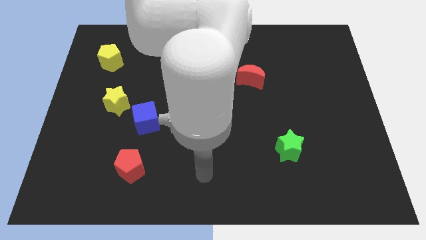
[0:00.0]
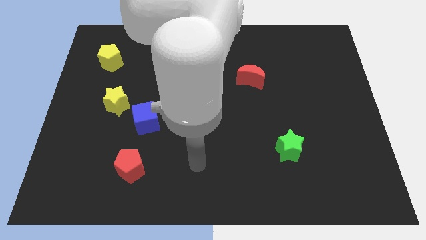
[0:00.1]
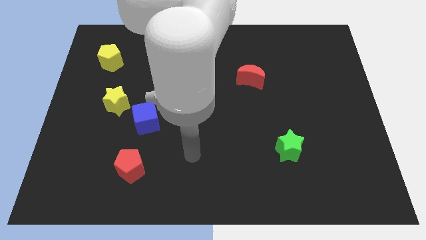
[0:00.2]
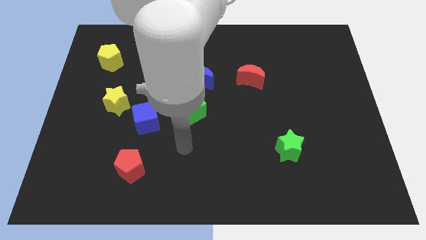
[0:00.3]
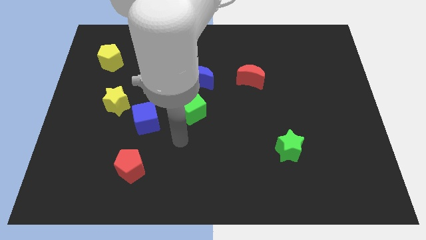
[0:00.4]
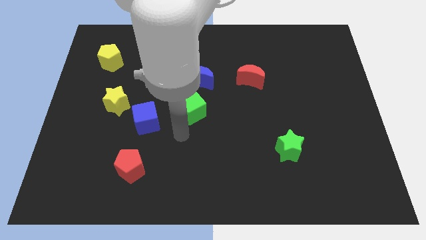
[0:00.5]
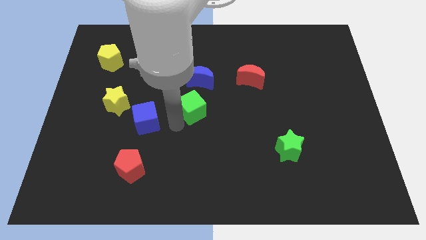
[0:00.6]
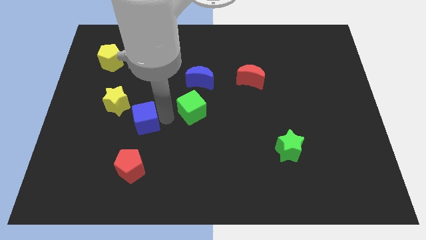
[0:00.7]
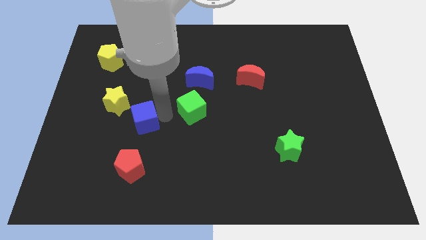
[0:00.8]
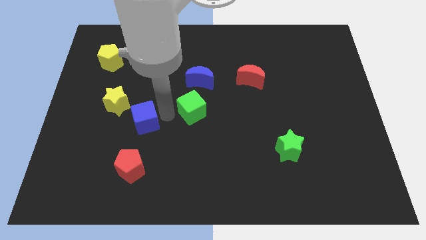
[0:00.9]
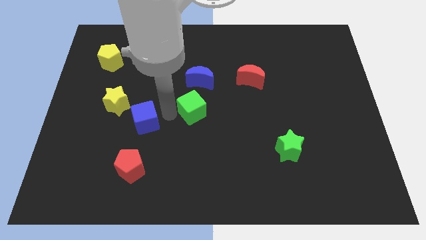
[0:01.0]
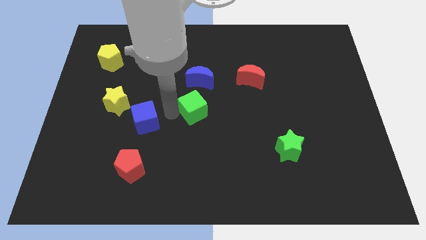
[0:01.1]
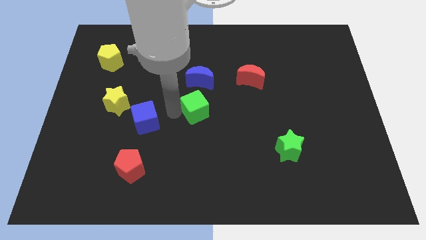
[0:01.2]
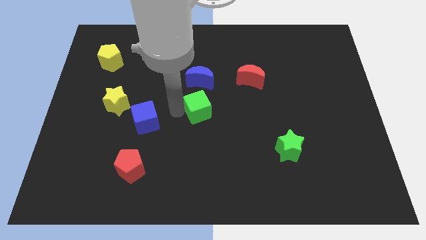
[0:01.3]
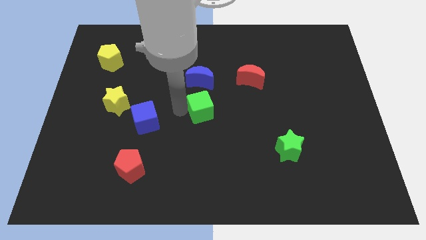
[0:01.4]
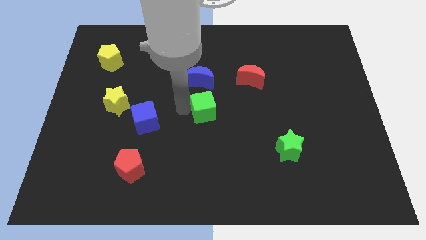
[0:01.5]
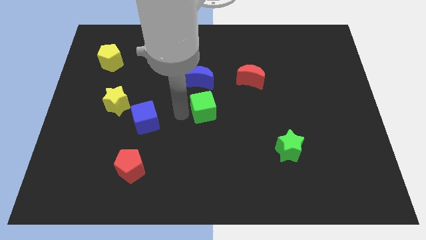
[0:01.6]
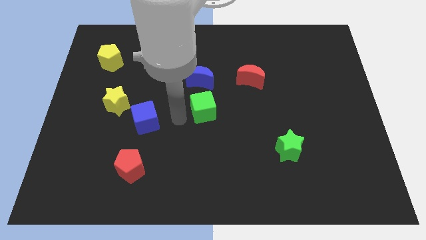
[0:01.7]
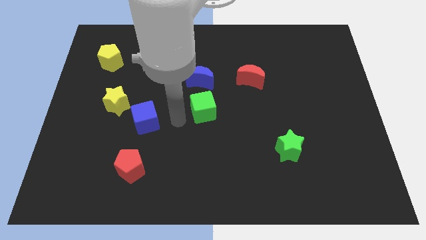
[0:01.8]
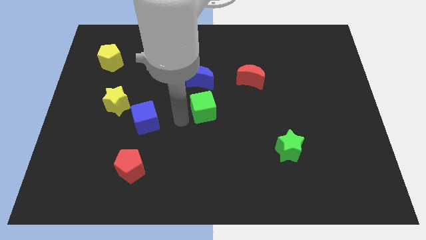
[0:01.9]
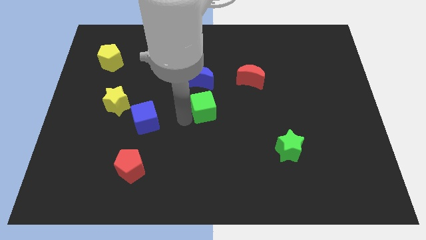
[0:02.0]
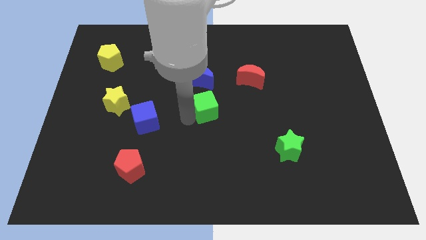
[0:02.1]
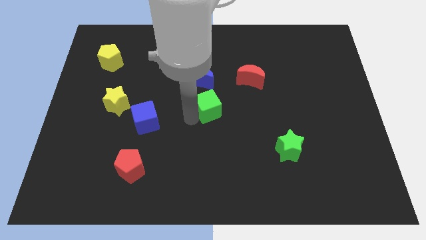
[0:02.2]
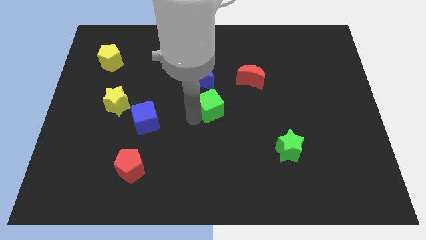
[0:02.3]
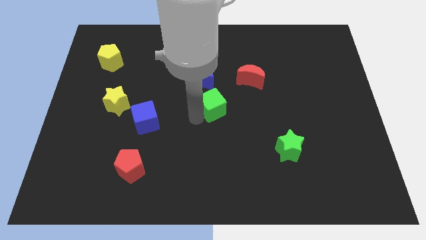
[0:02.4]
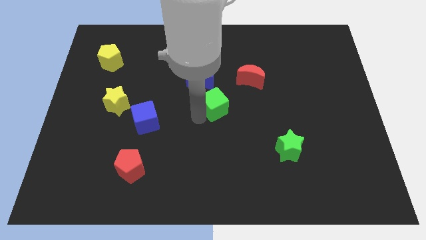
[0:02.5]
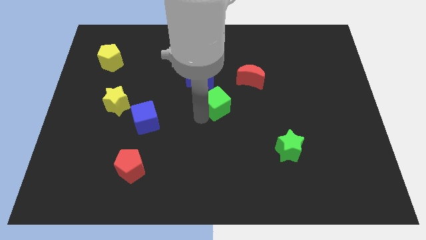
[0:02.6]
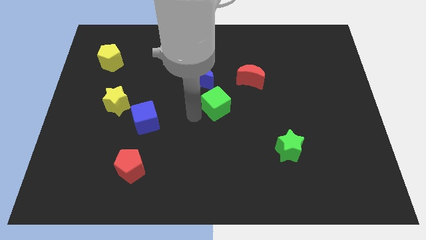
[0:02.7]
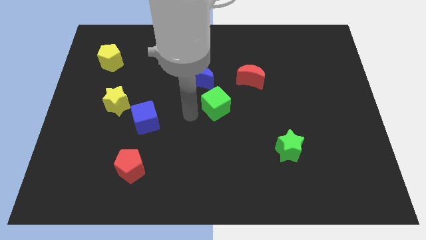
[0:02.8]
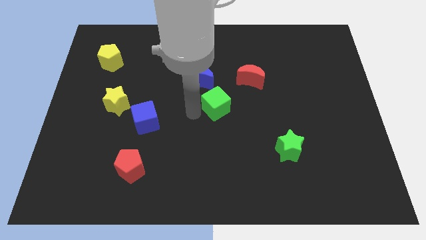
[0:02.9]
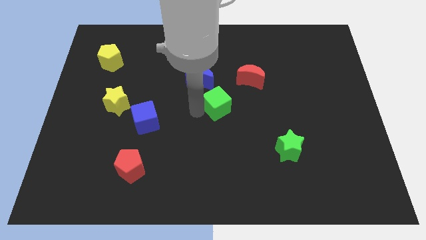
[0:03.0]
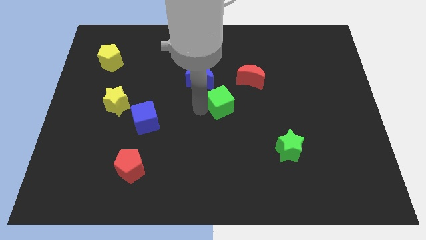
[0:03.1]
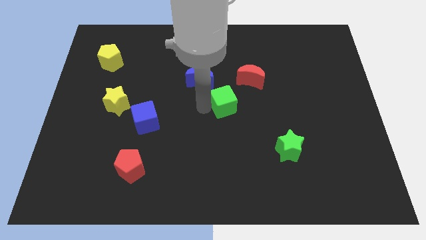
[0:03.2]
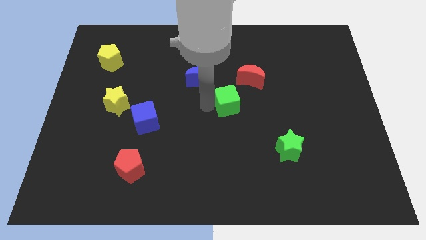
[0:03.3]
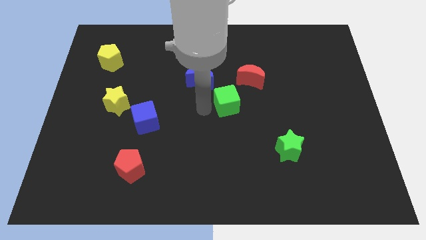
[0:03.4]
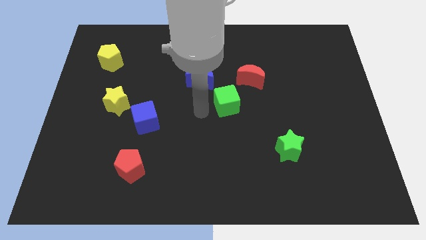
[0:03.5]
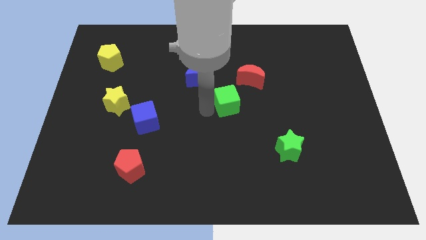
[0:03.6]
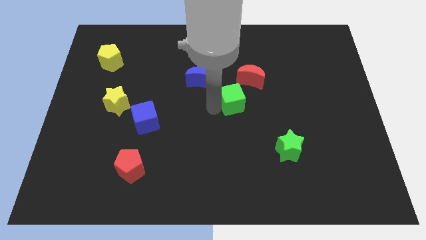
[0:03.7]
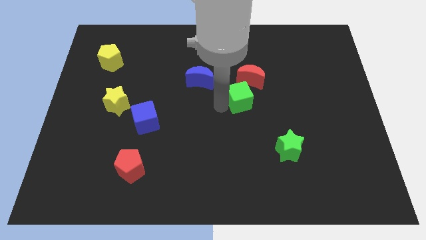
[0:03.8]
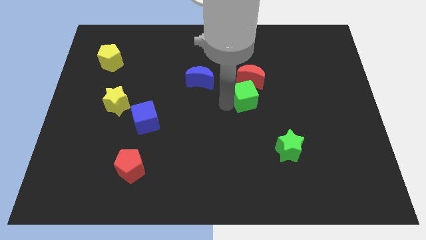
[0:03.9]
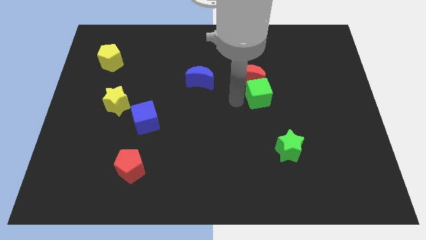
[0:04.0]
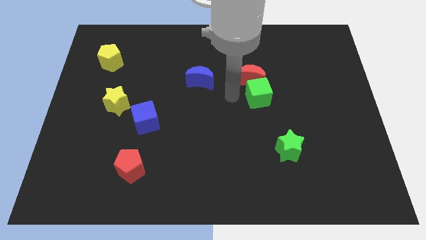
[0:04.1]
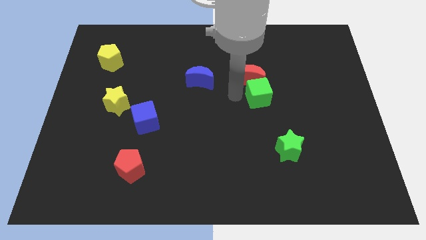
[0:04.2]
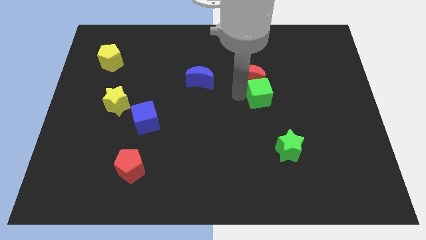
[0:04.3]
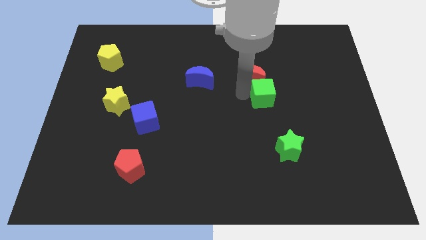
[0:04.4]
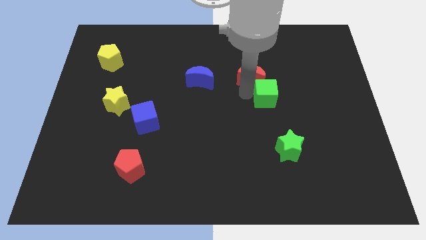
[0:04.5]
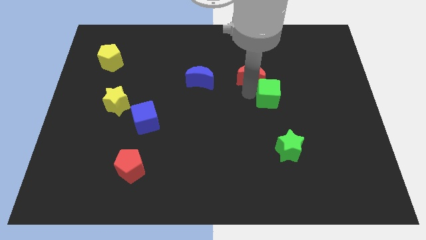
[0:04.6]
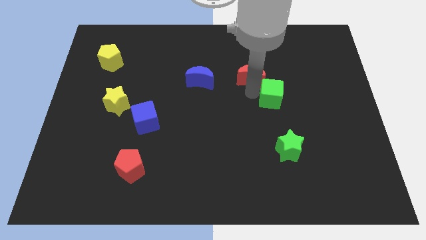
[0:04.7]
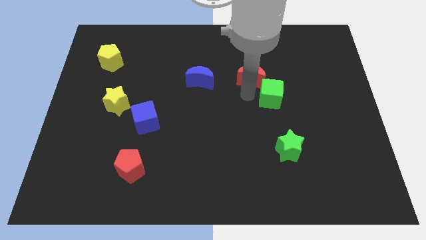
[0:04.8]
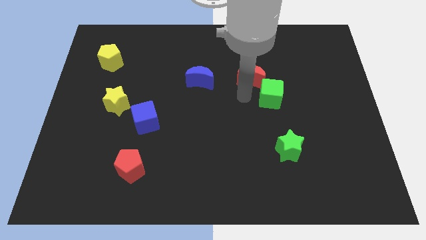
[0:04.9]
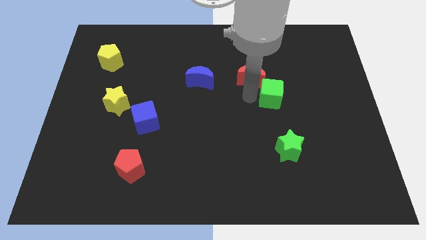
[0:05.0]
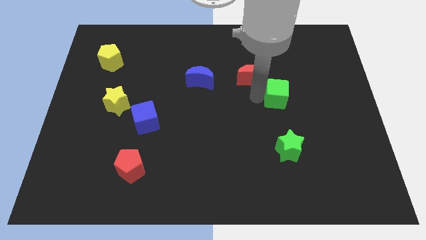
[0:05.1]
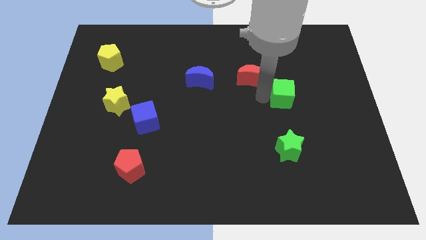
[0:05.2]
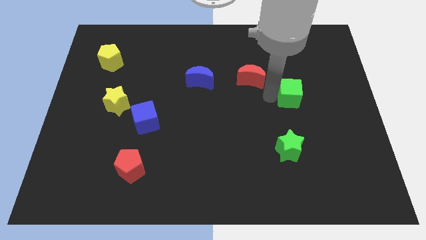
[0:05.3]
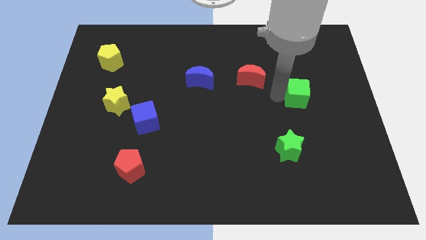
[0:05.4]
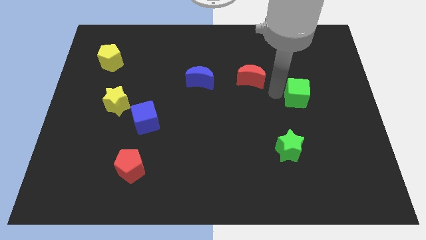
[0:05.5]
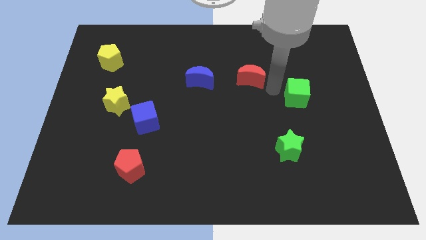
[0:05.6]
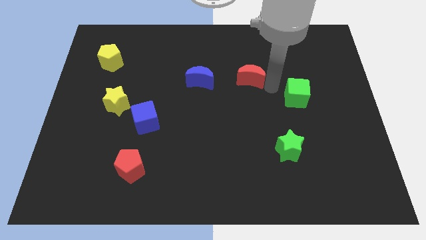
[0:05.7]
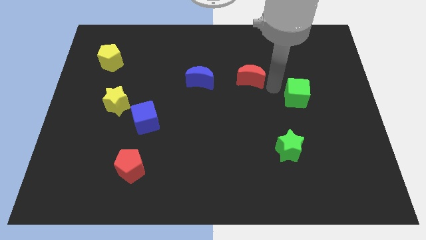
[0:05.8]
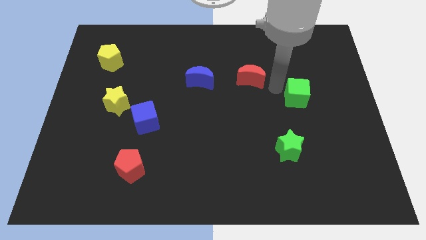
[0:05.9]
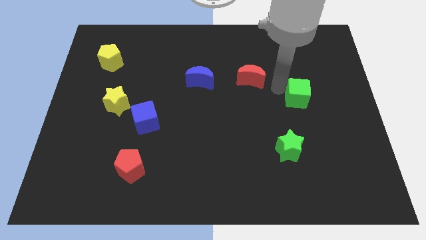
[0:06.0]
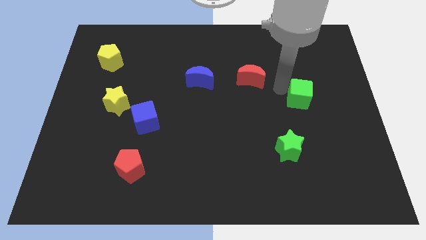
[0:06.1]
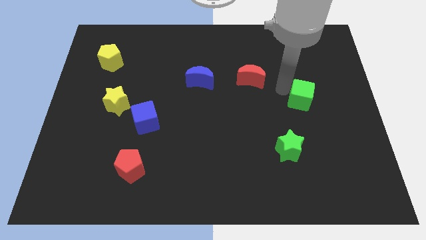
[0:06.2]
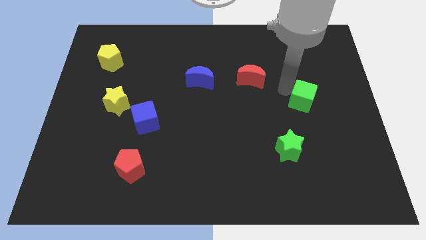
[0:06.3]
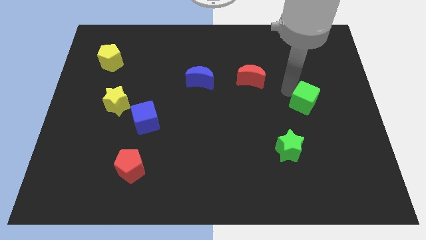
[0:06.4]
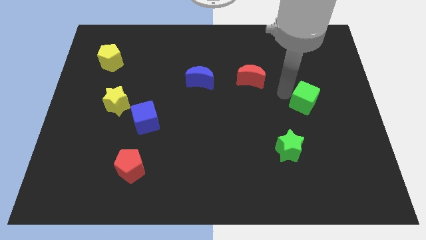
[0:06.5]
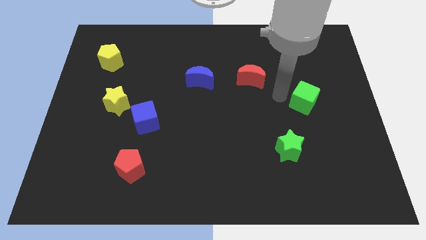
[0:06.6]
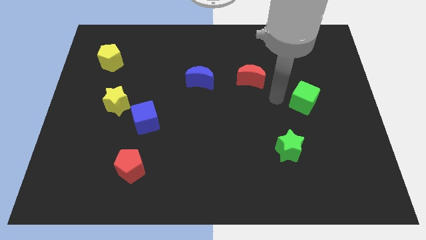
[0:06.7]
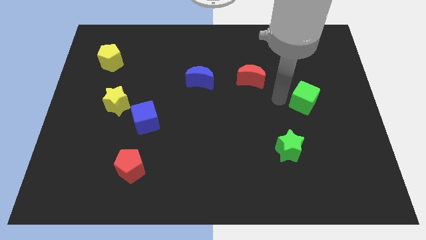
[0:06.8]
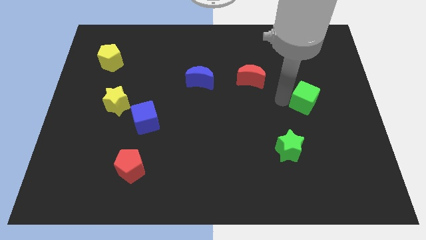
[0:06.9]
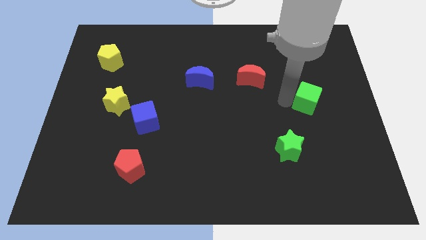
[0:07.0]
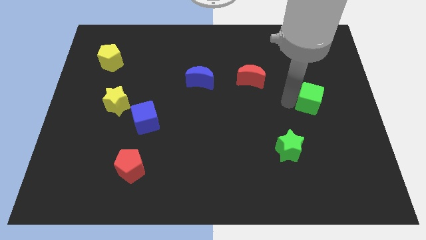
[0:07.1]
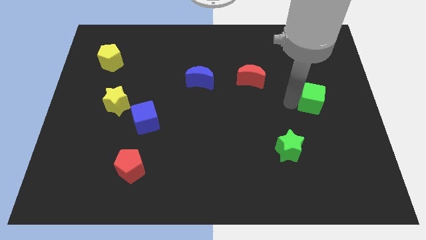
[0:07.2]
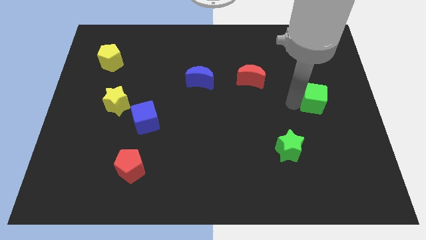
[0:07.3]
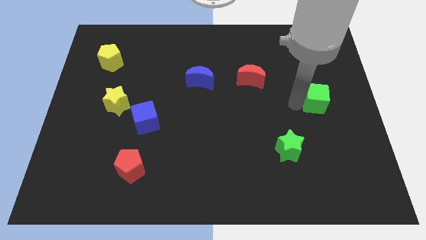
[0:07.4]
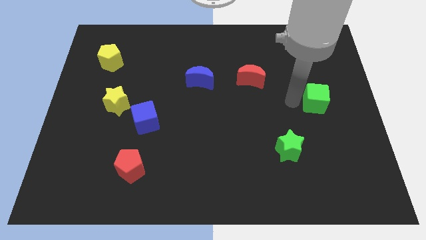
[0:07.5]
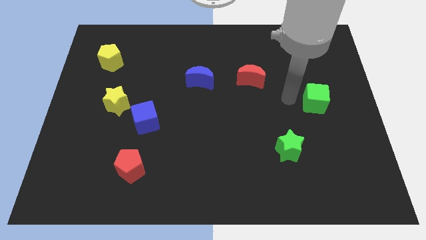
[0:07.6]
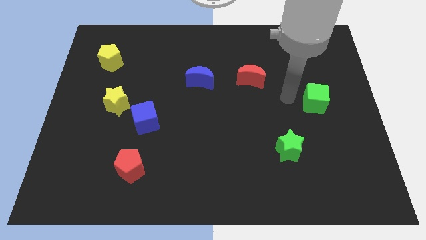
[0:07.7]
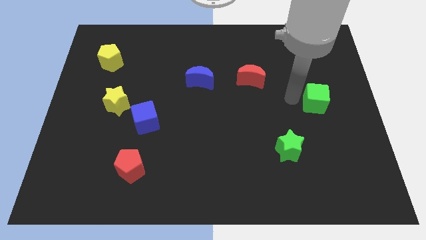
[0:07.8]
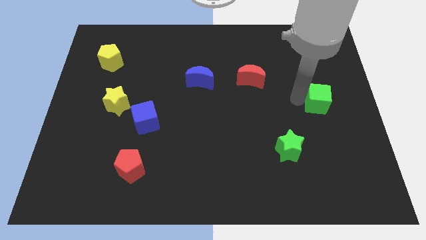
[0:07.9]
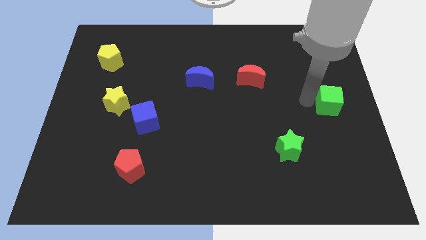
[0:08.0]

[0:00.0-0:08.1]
put the green cube to the right side of the board
